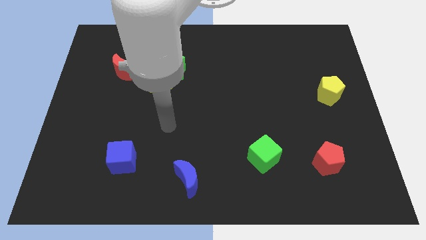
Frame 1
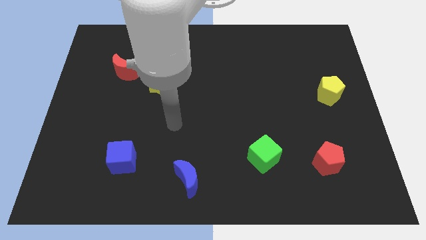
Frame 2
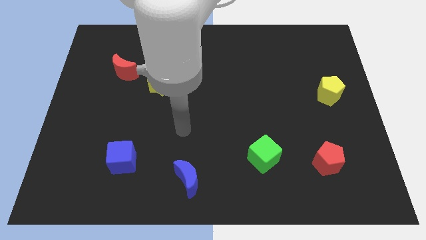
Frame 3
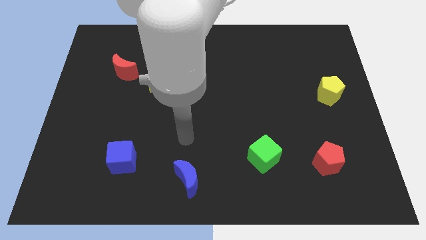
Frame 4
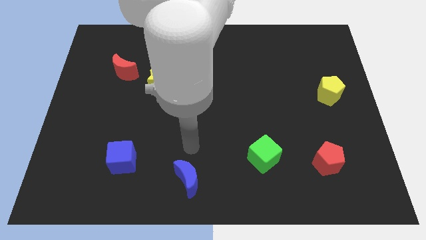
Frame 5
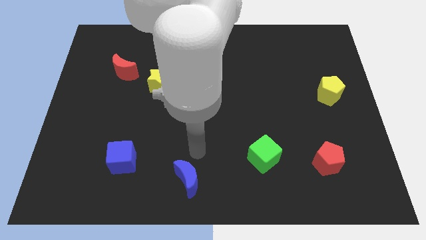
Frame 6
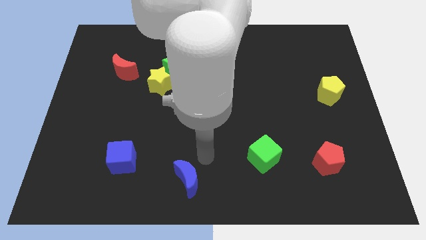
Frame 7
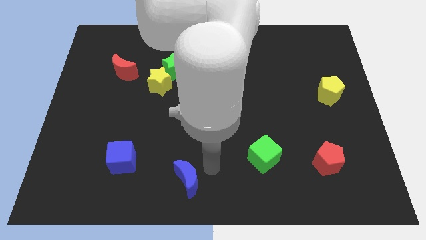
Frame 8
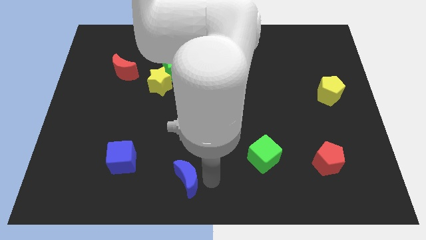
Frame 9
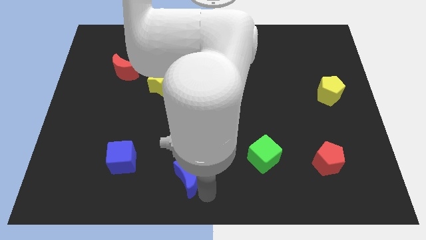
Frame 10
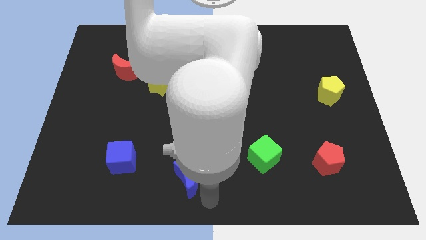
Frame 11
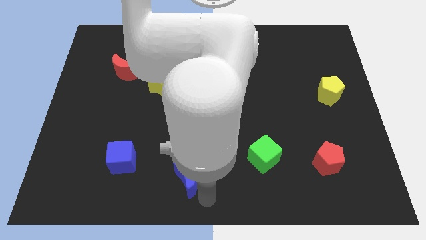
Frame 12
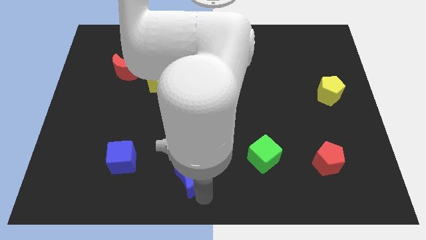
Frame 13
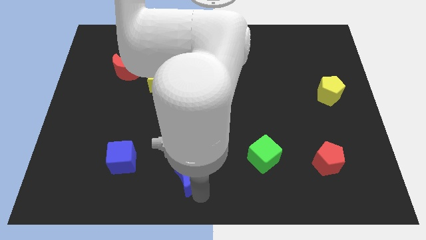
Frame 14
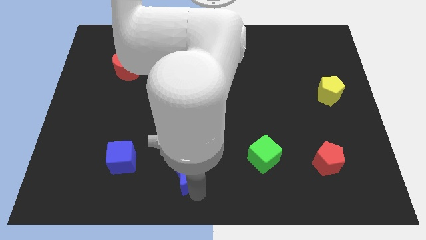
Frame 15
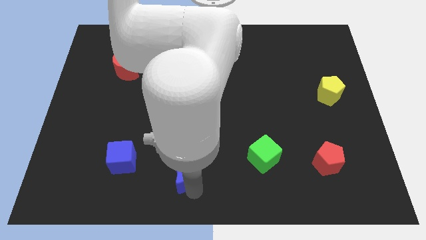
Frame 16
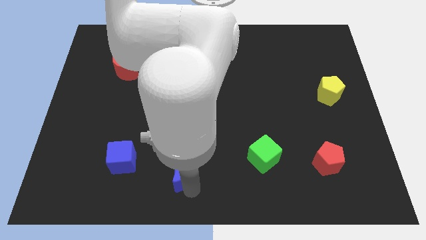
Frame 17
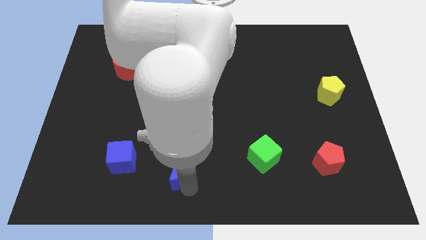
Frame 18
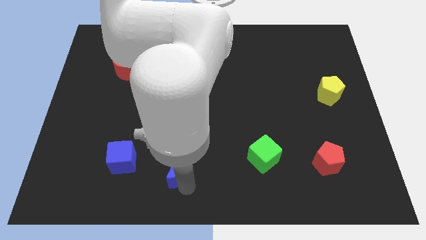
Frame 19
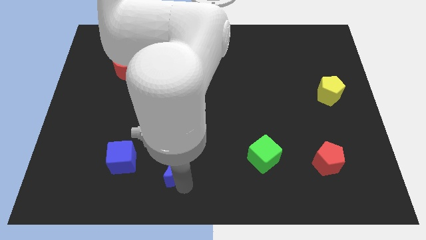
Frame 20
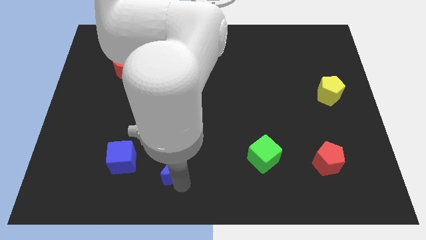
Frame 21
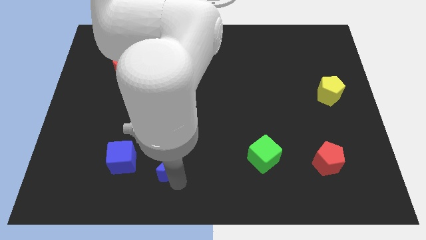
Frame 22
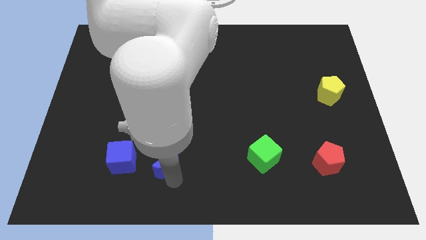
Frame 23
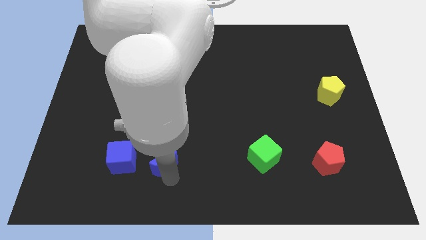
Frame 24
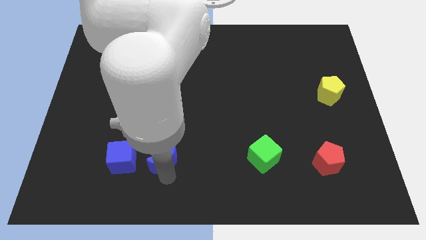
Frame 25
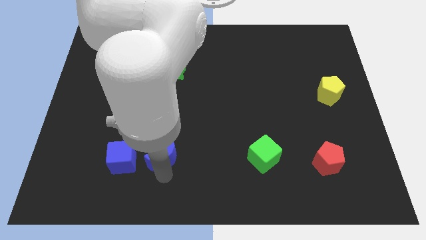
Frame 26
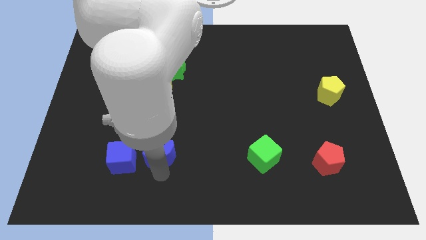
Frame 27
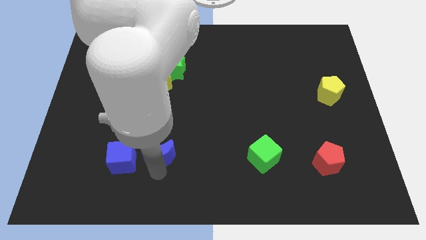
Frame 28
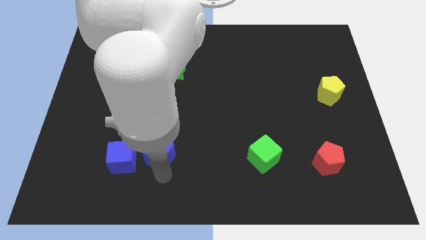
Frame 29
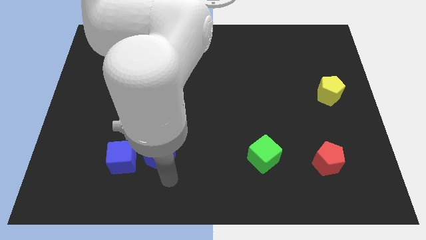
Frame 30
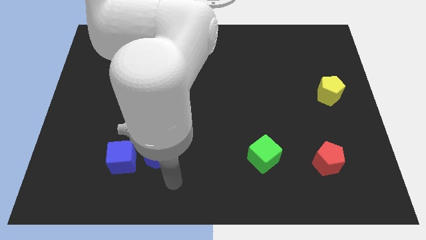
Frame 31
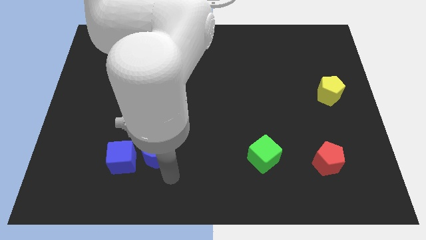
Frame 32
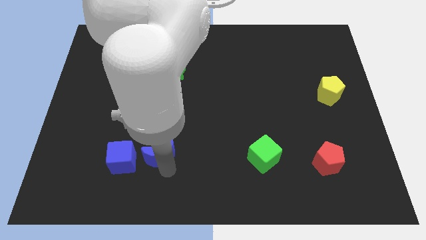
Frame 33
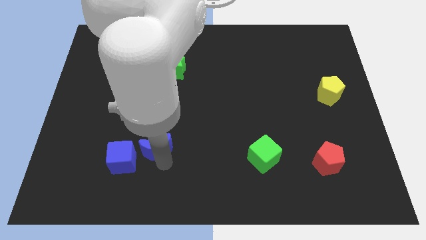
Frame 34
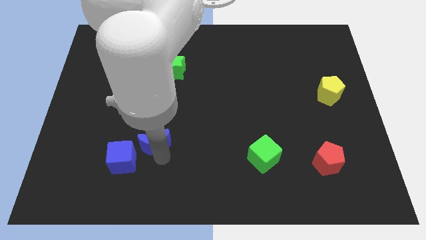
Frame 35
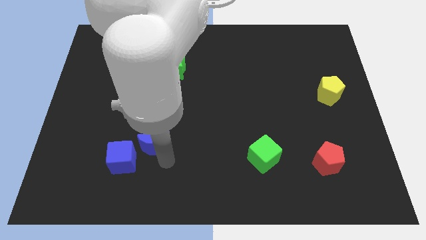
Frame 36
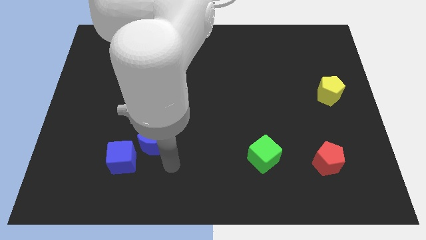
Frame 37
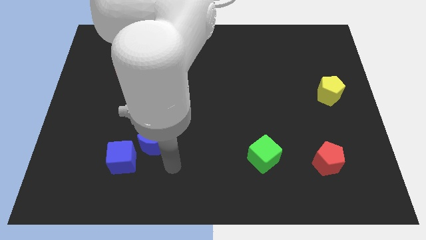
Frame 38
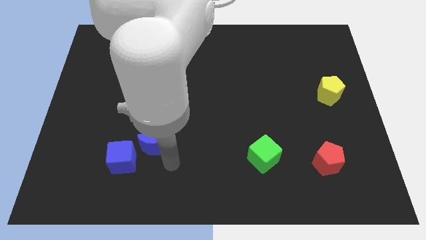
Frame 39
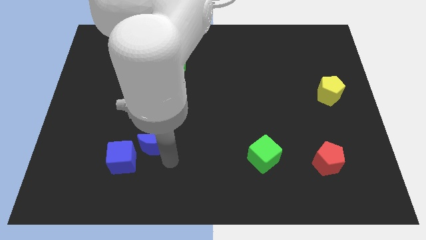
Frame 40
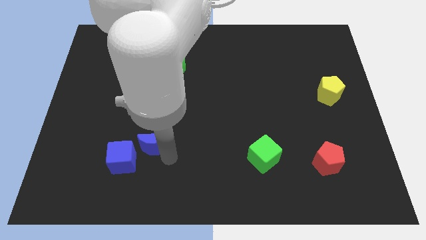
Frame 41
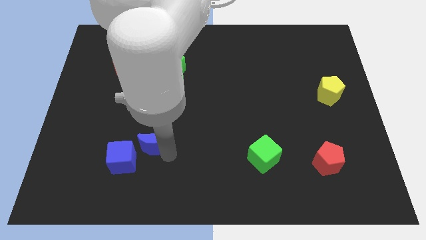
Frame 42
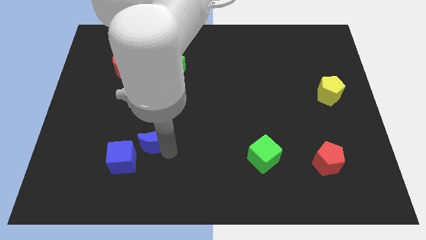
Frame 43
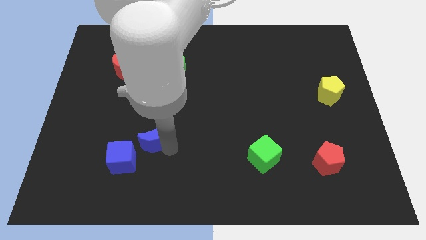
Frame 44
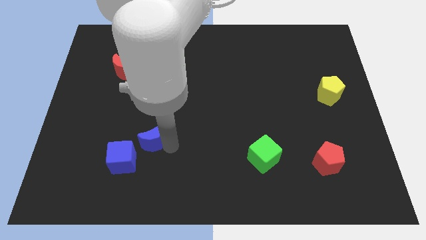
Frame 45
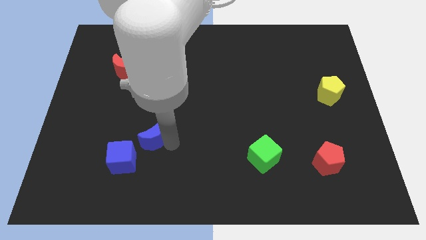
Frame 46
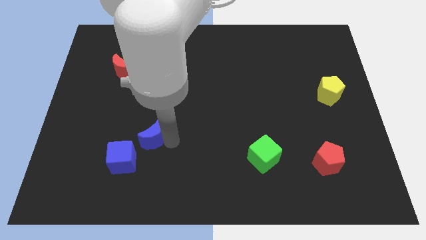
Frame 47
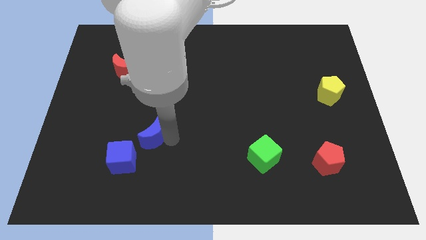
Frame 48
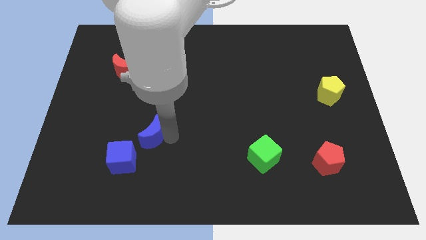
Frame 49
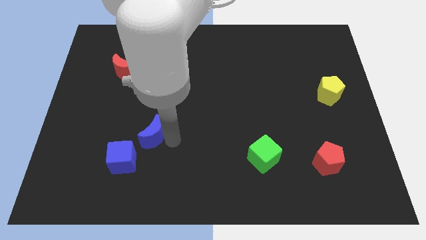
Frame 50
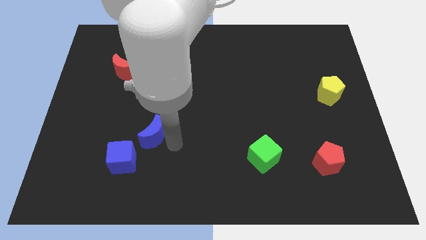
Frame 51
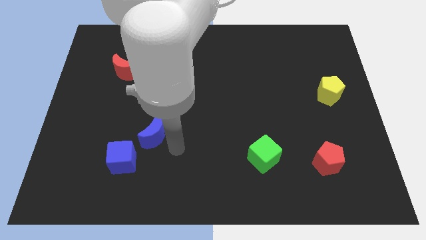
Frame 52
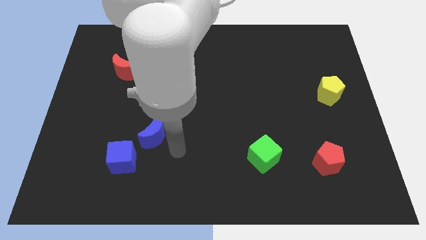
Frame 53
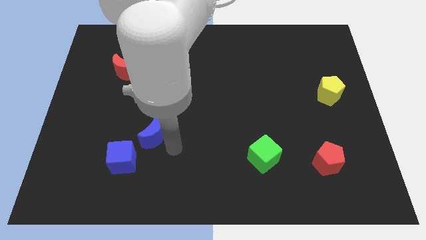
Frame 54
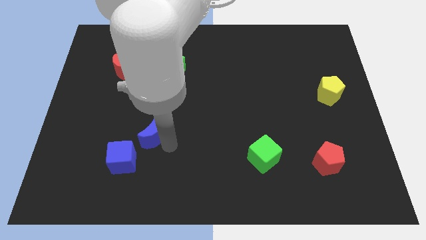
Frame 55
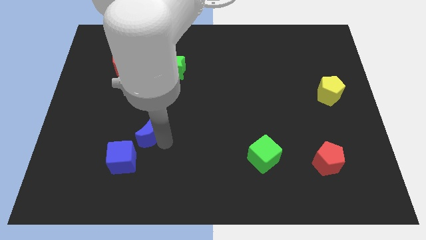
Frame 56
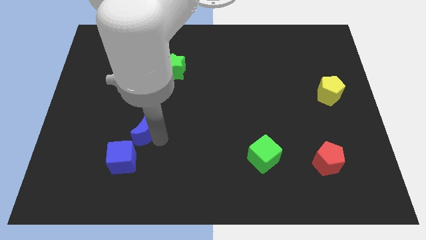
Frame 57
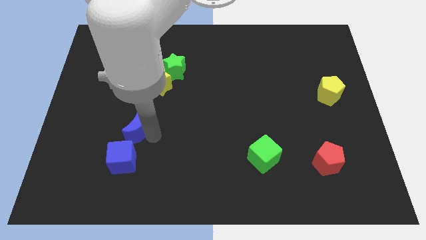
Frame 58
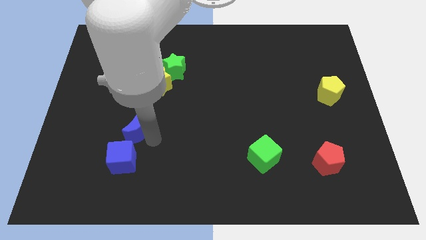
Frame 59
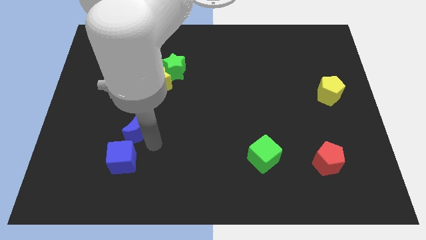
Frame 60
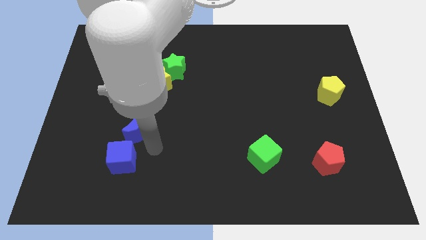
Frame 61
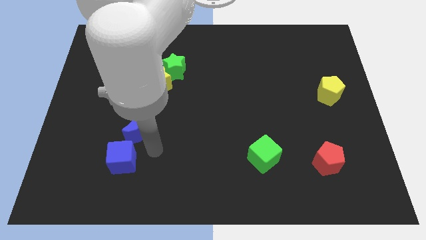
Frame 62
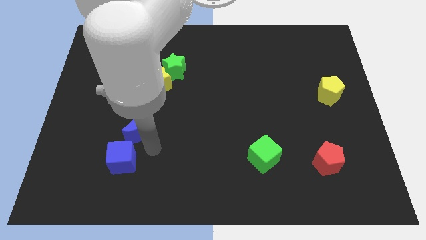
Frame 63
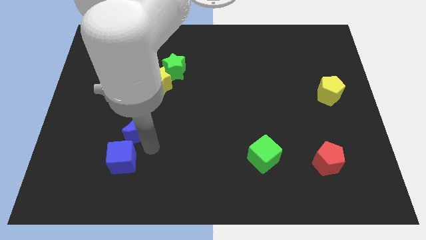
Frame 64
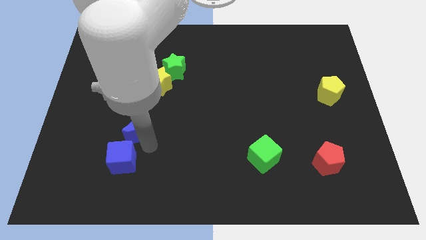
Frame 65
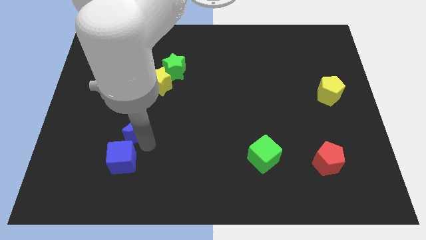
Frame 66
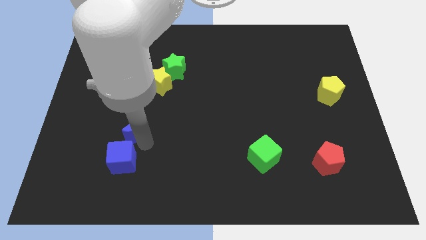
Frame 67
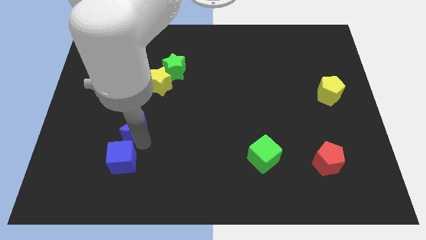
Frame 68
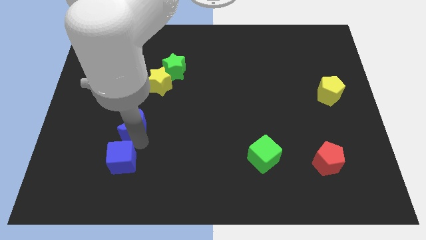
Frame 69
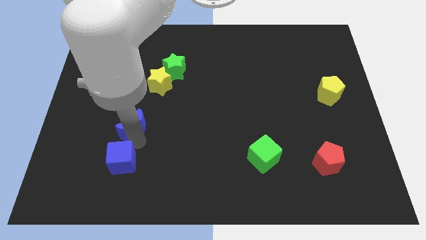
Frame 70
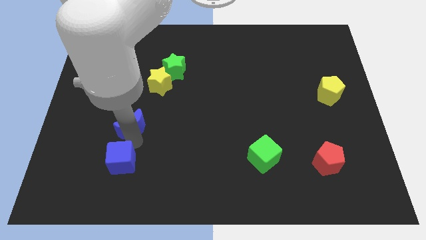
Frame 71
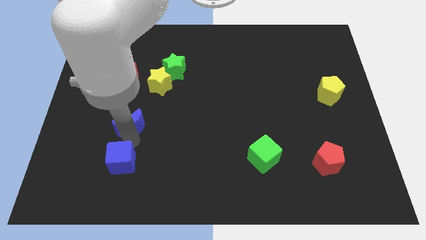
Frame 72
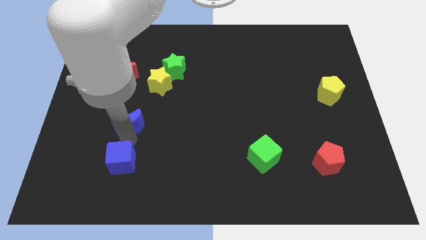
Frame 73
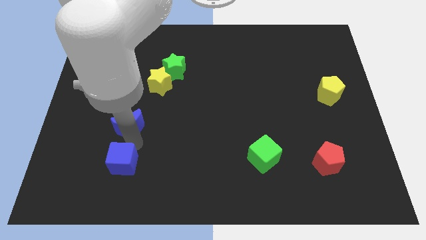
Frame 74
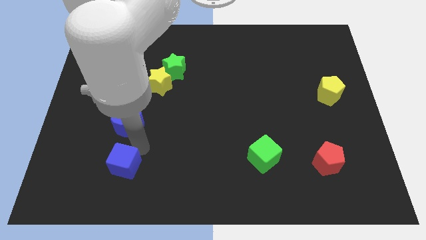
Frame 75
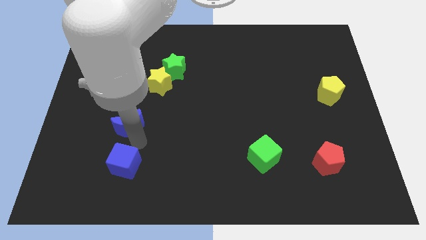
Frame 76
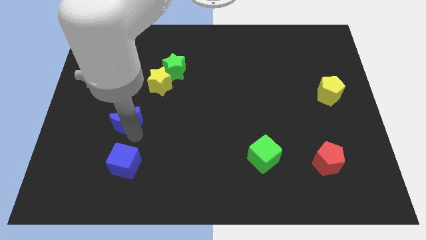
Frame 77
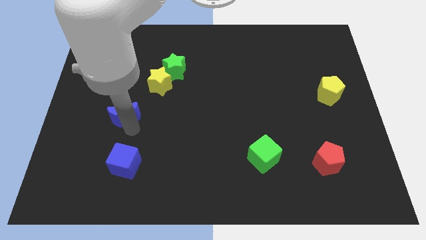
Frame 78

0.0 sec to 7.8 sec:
put the blue moon below the red moon
